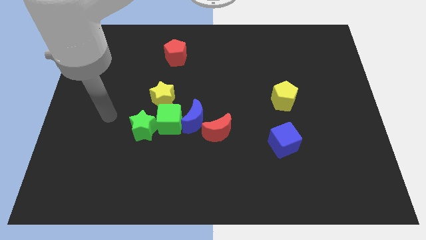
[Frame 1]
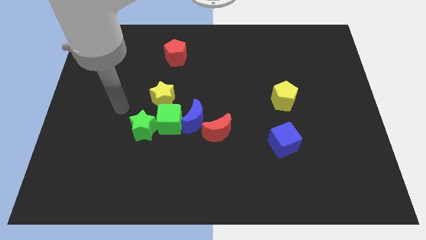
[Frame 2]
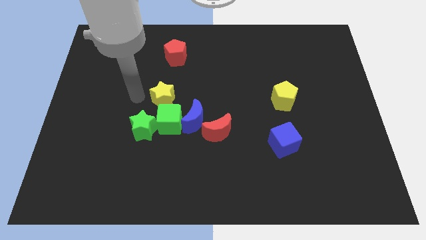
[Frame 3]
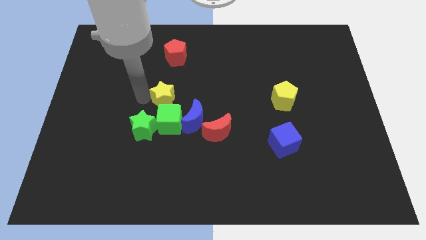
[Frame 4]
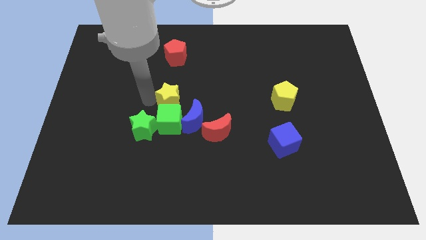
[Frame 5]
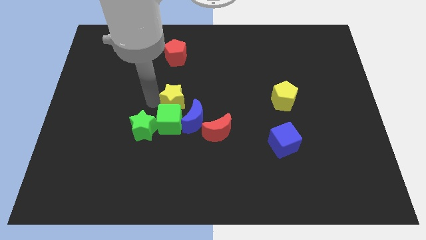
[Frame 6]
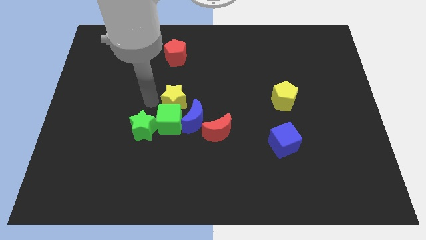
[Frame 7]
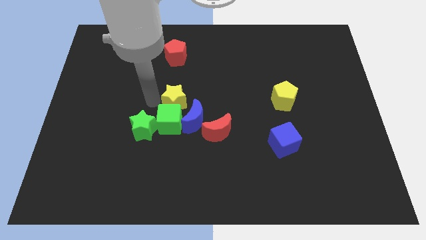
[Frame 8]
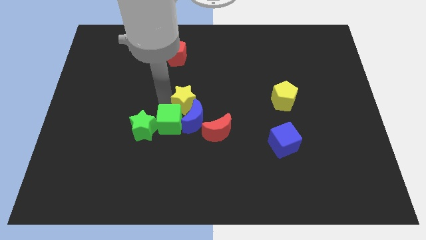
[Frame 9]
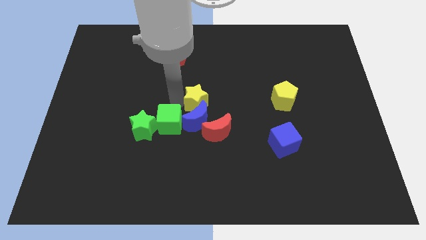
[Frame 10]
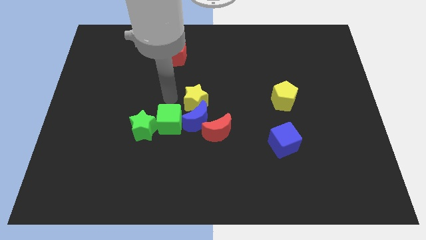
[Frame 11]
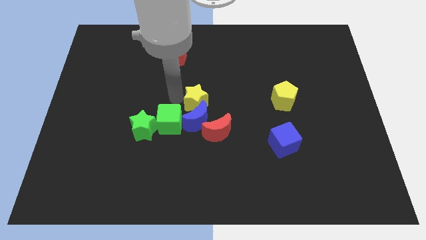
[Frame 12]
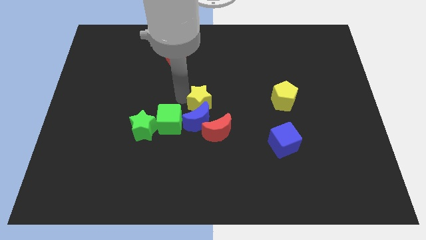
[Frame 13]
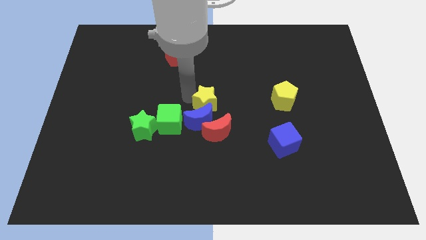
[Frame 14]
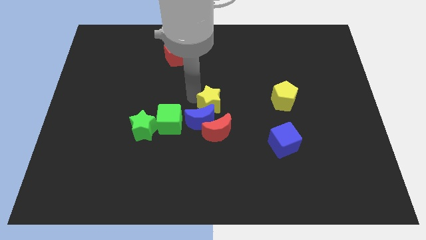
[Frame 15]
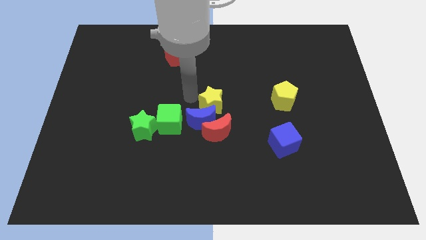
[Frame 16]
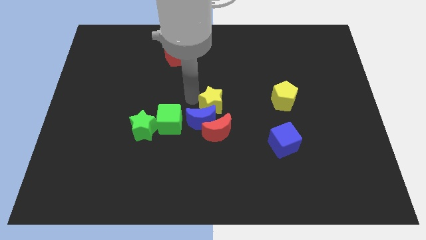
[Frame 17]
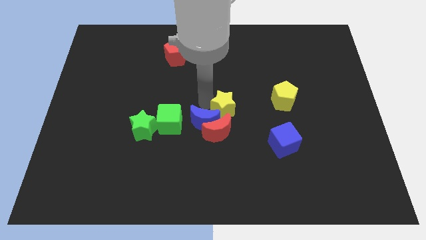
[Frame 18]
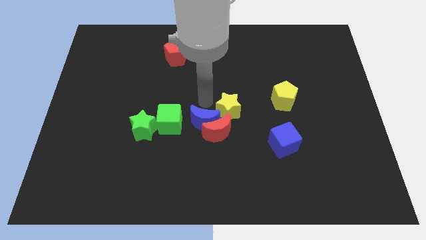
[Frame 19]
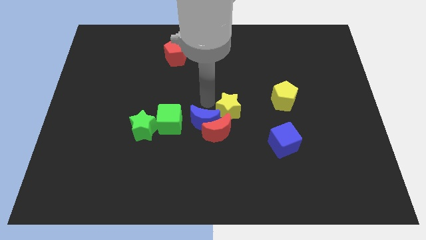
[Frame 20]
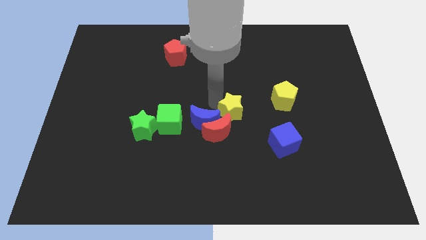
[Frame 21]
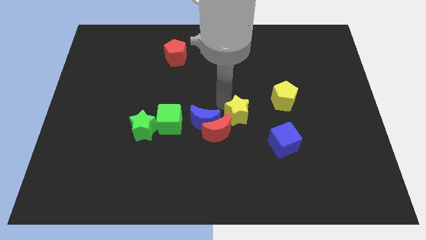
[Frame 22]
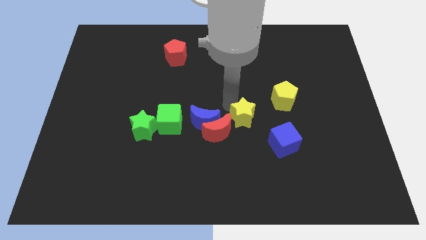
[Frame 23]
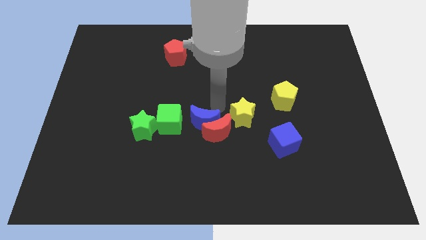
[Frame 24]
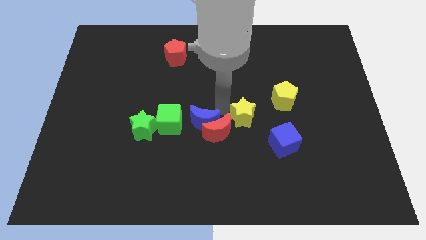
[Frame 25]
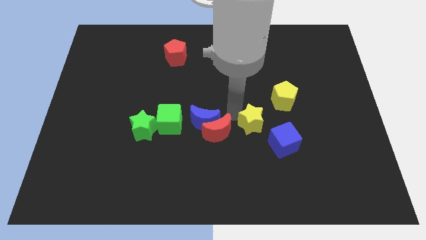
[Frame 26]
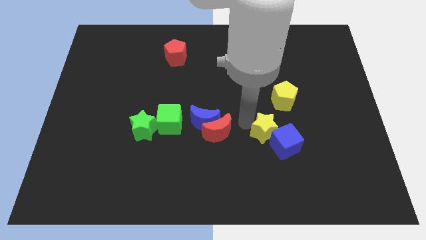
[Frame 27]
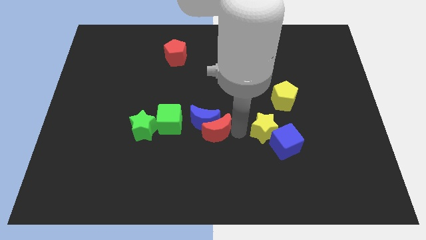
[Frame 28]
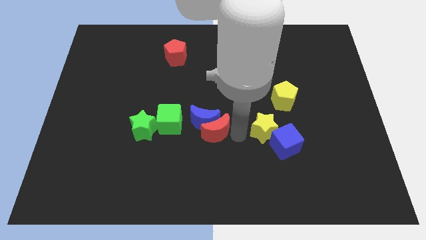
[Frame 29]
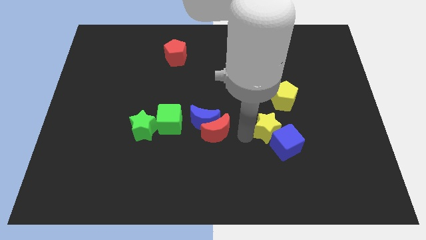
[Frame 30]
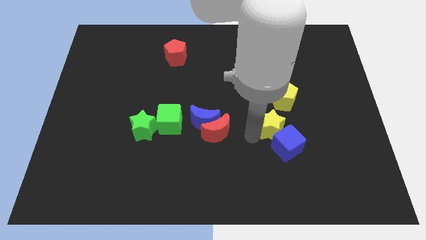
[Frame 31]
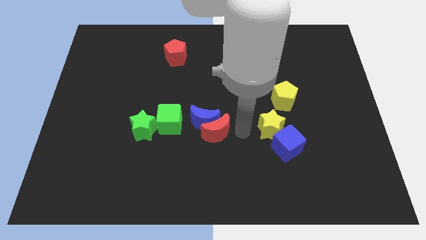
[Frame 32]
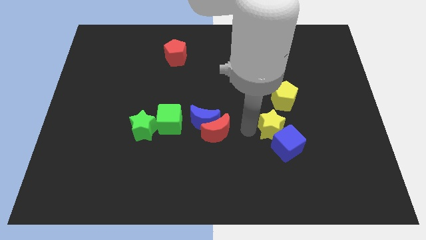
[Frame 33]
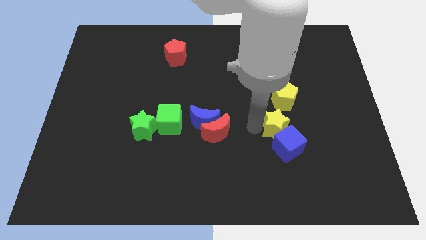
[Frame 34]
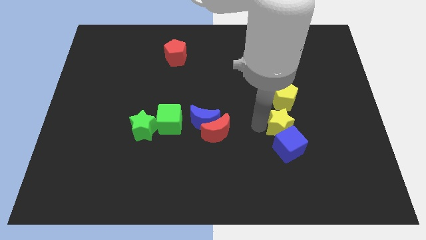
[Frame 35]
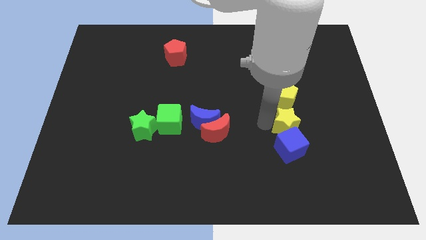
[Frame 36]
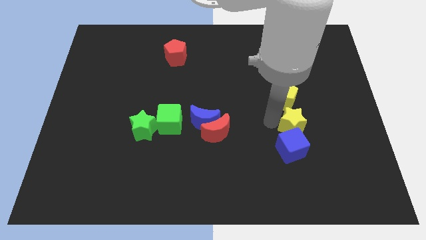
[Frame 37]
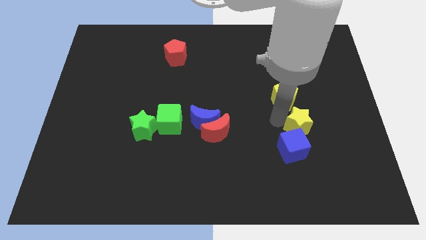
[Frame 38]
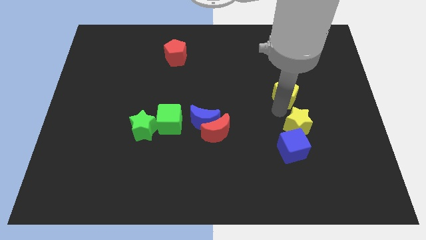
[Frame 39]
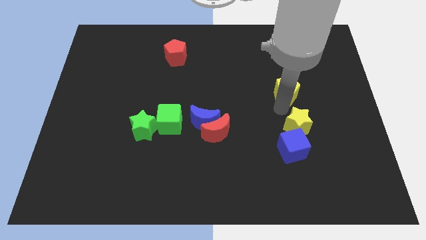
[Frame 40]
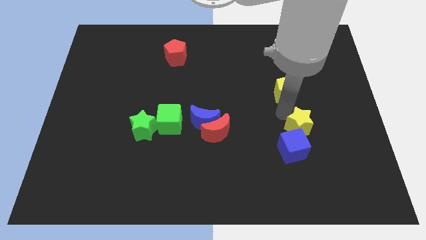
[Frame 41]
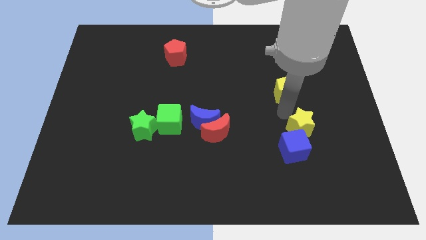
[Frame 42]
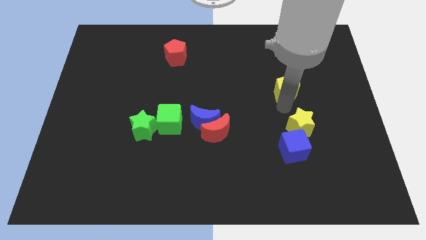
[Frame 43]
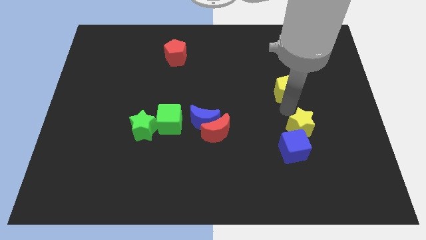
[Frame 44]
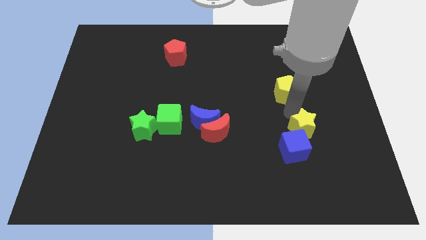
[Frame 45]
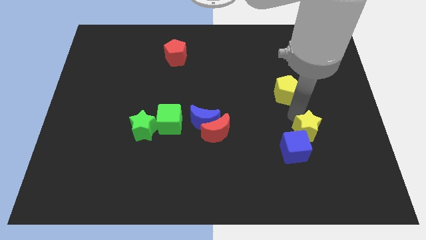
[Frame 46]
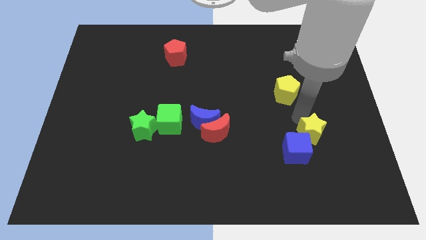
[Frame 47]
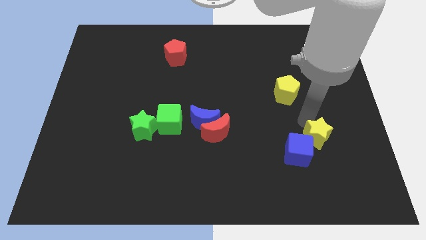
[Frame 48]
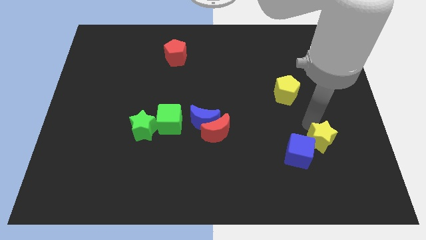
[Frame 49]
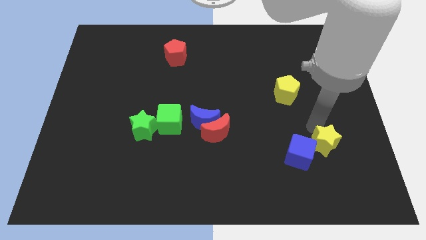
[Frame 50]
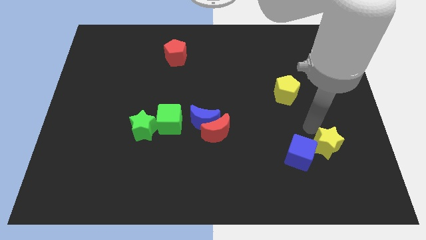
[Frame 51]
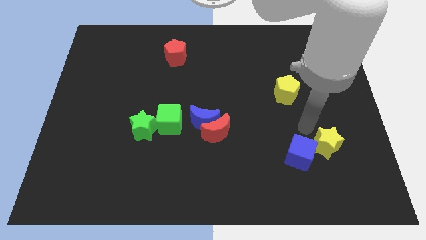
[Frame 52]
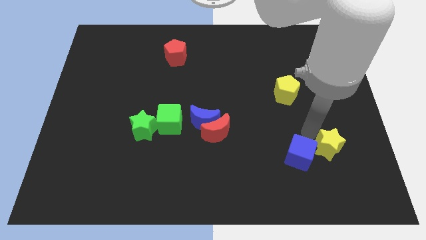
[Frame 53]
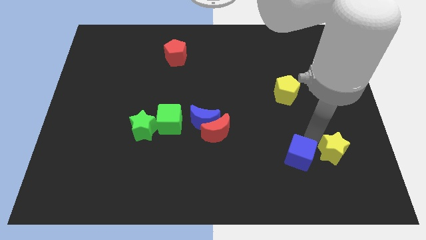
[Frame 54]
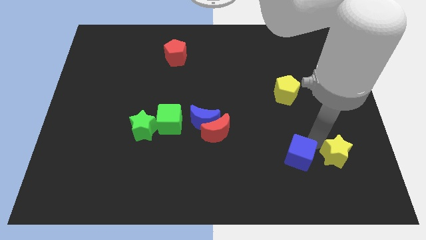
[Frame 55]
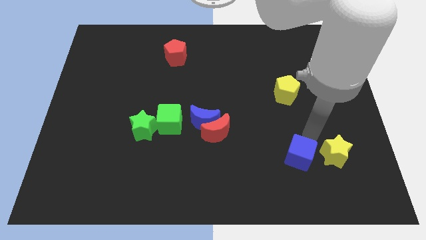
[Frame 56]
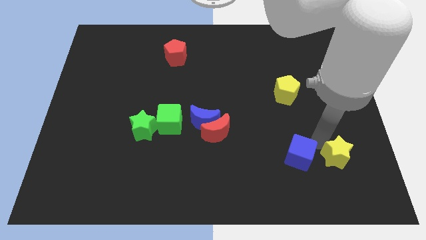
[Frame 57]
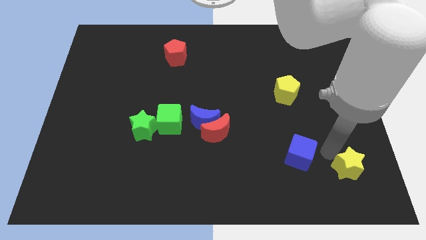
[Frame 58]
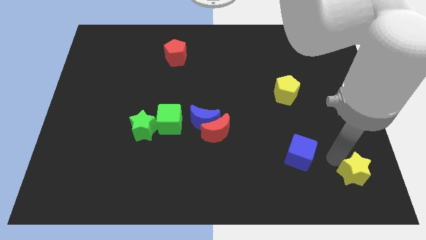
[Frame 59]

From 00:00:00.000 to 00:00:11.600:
push the yellow star to the bottom right corner
